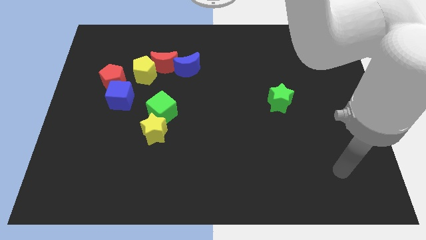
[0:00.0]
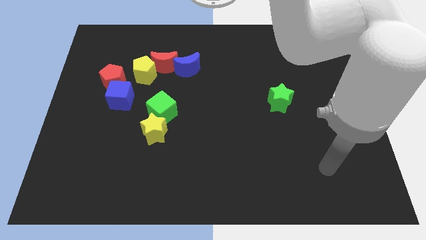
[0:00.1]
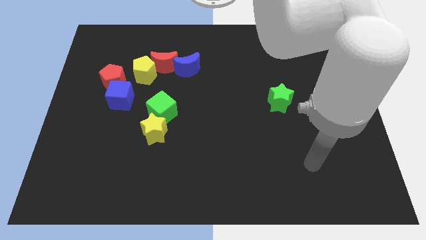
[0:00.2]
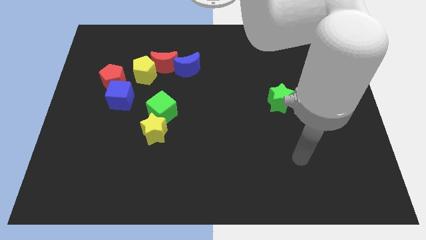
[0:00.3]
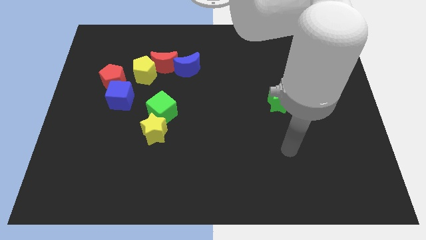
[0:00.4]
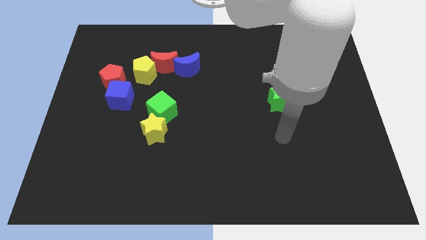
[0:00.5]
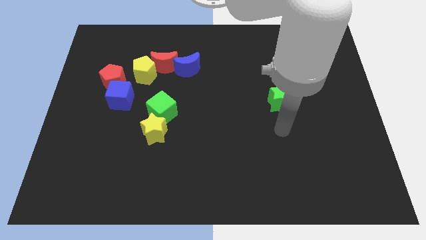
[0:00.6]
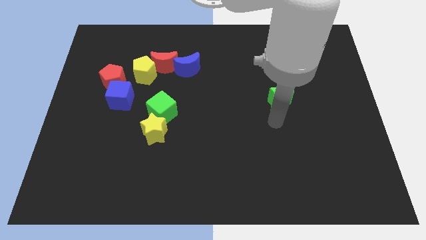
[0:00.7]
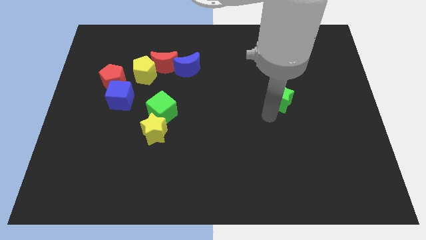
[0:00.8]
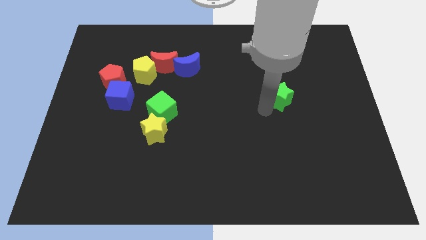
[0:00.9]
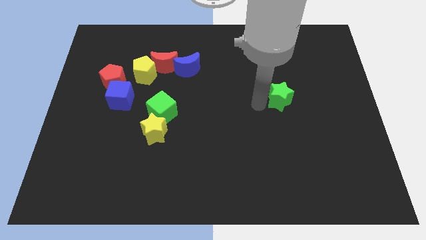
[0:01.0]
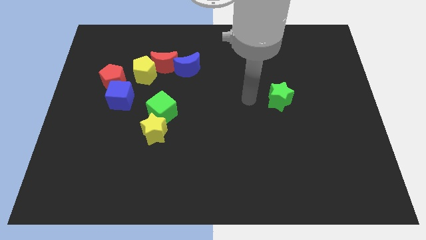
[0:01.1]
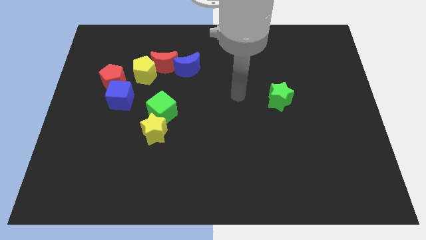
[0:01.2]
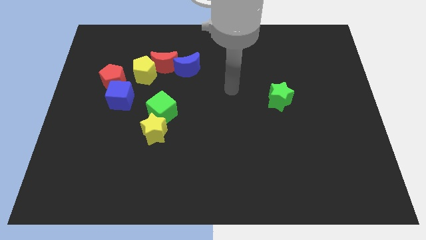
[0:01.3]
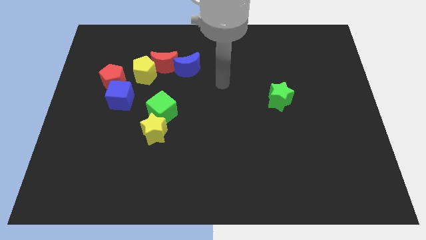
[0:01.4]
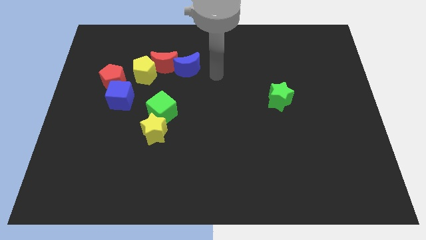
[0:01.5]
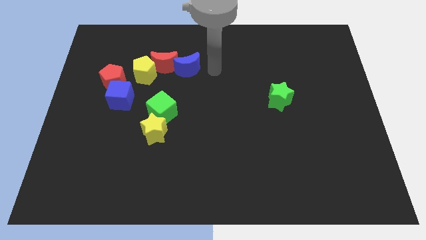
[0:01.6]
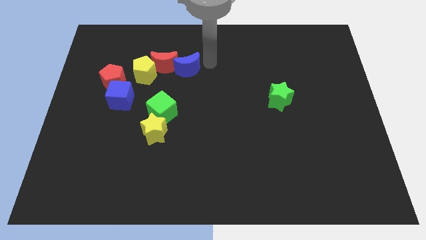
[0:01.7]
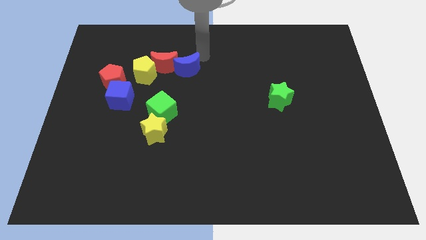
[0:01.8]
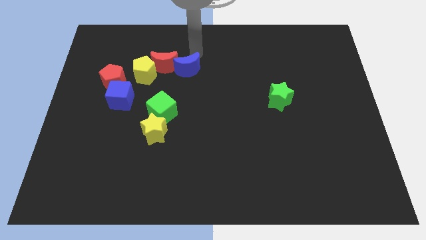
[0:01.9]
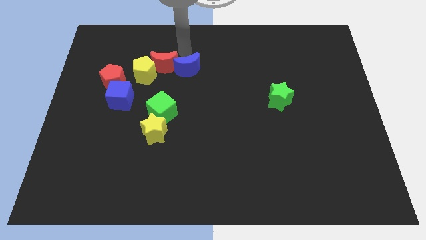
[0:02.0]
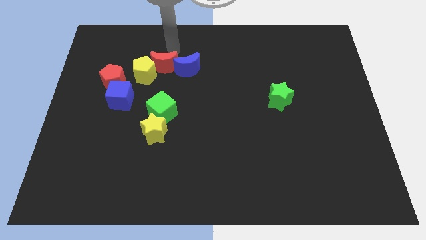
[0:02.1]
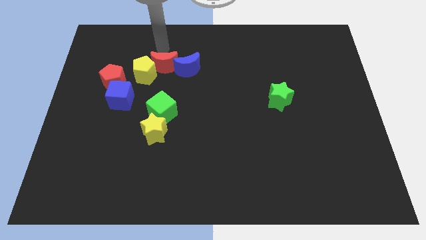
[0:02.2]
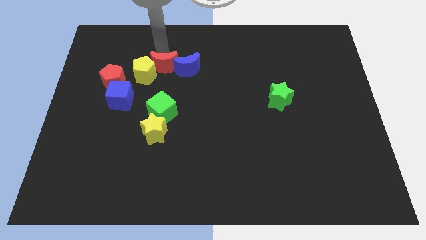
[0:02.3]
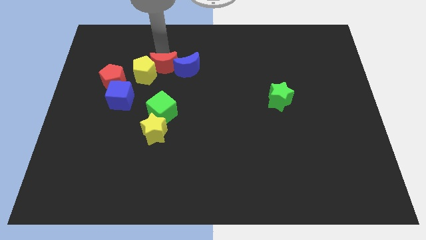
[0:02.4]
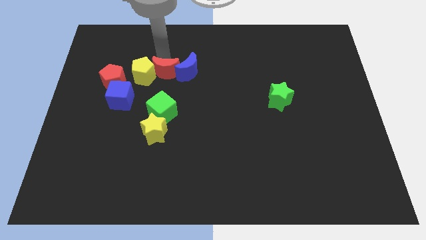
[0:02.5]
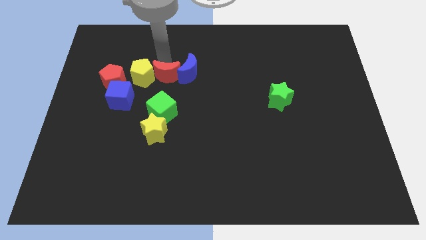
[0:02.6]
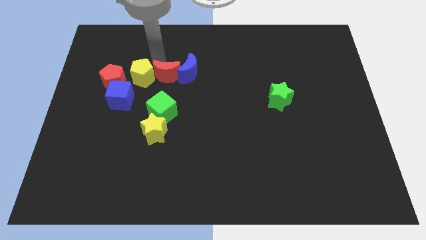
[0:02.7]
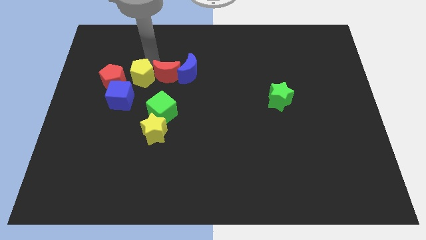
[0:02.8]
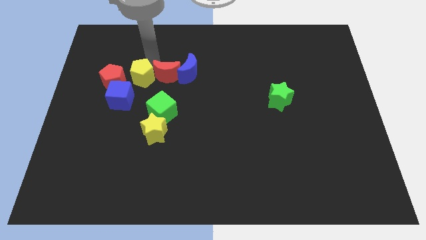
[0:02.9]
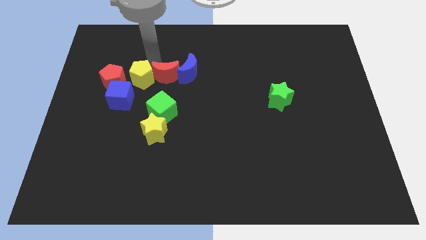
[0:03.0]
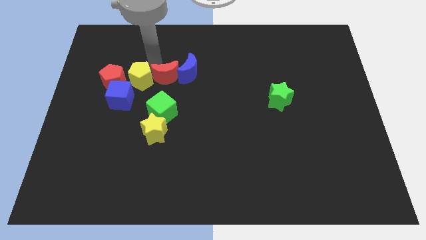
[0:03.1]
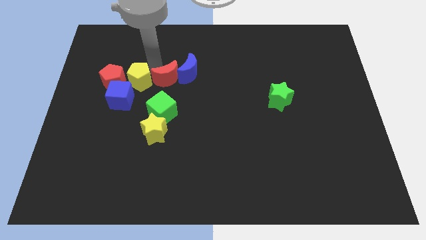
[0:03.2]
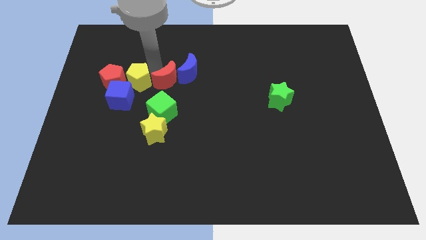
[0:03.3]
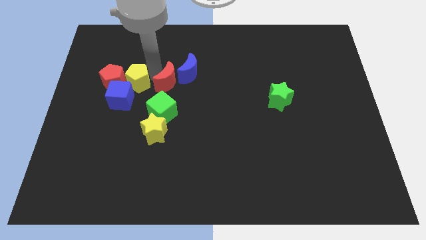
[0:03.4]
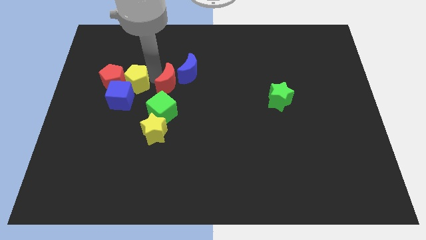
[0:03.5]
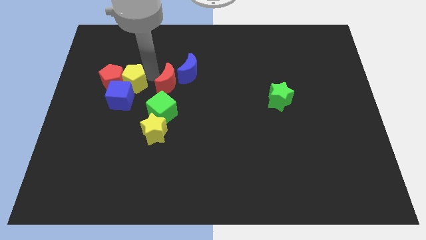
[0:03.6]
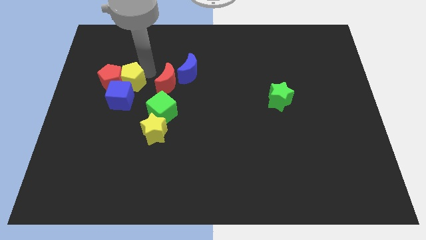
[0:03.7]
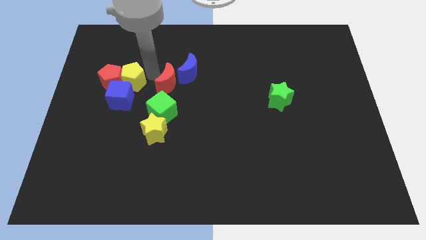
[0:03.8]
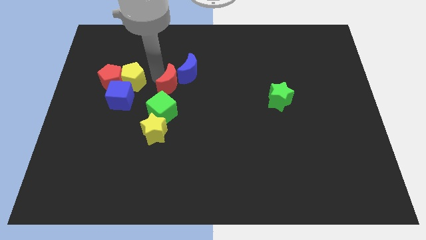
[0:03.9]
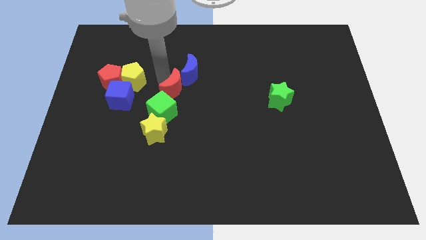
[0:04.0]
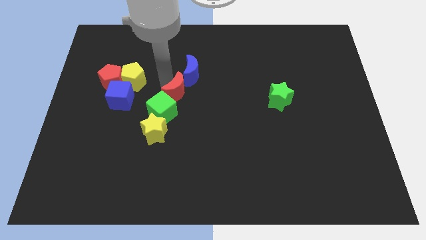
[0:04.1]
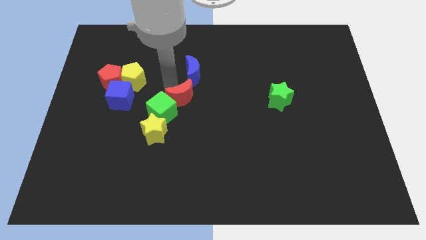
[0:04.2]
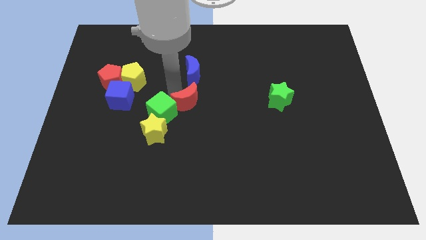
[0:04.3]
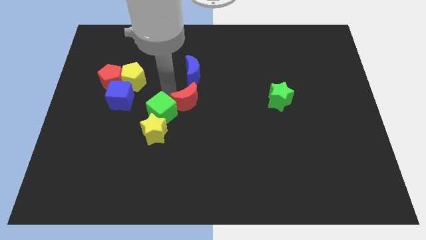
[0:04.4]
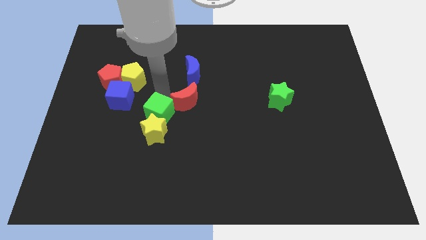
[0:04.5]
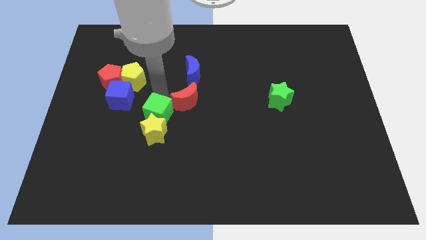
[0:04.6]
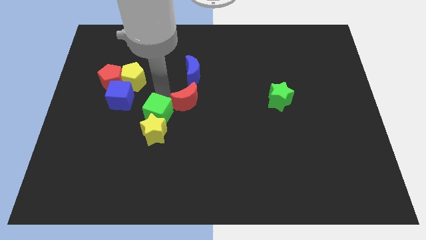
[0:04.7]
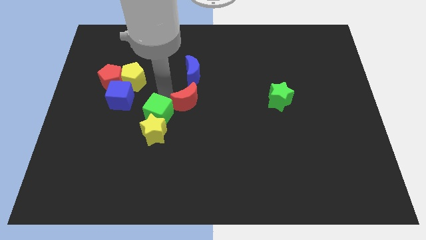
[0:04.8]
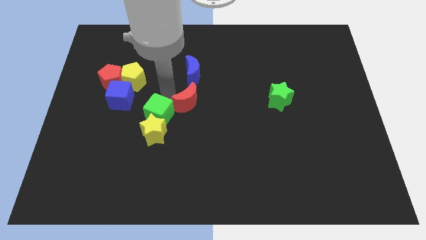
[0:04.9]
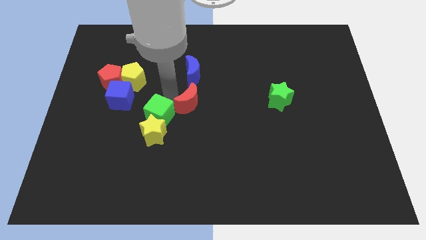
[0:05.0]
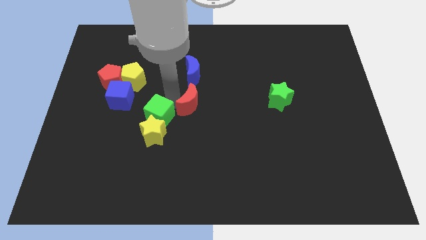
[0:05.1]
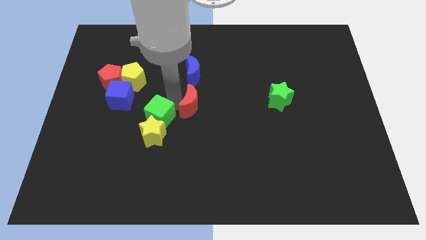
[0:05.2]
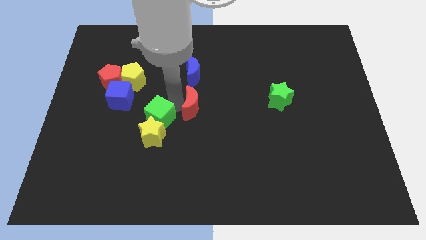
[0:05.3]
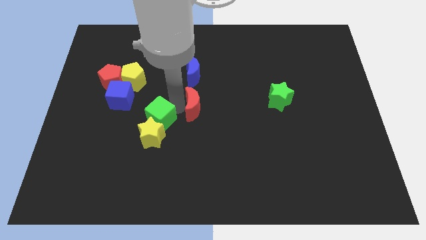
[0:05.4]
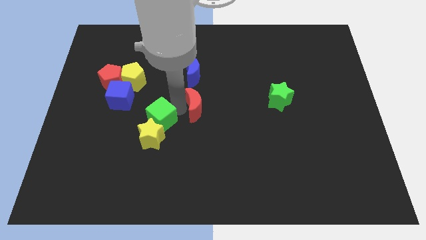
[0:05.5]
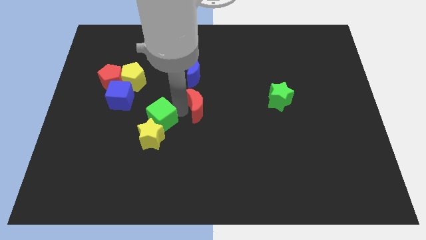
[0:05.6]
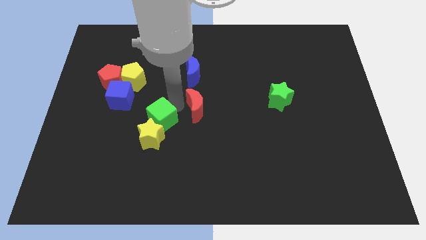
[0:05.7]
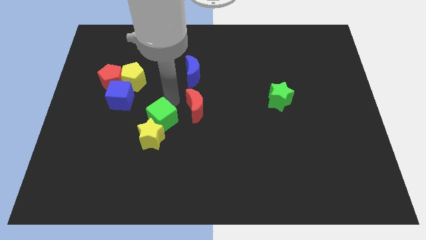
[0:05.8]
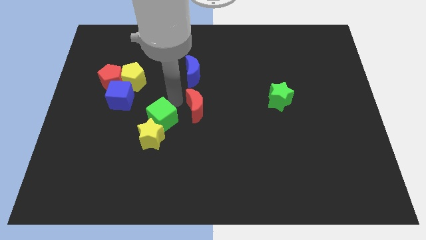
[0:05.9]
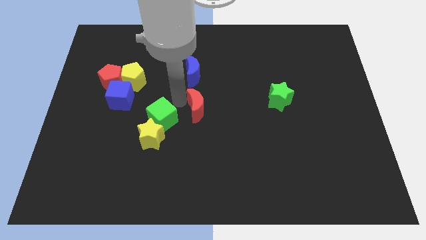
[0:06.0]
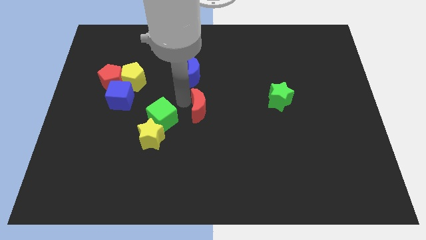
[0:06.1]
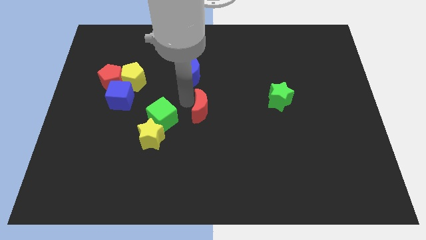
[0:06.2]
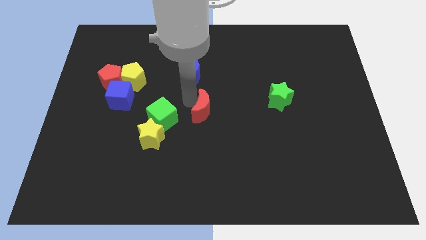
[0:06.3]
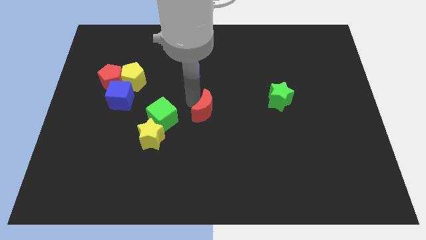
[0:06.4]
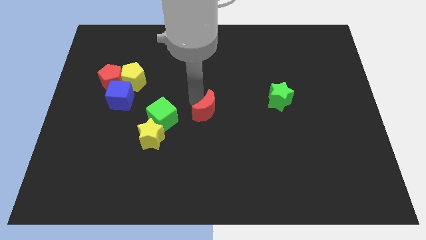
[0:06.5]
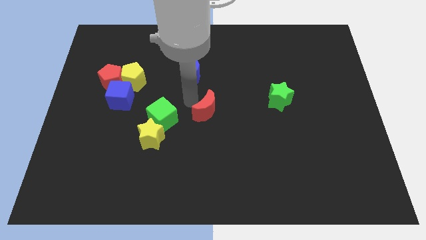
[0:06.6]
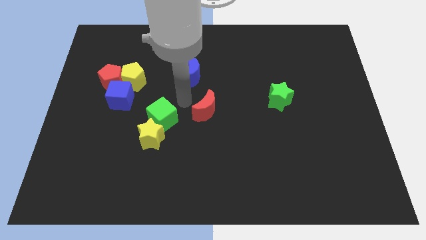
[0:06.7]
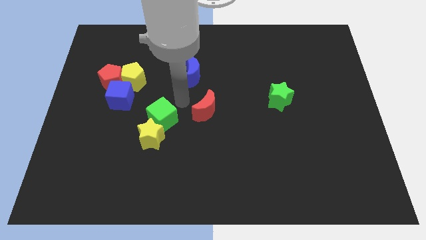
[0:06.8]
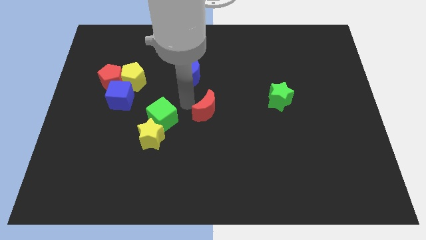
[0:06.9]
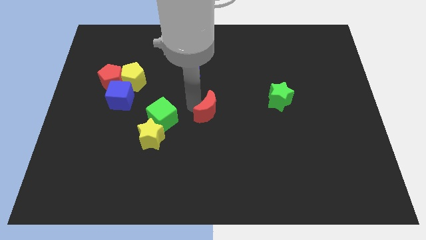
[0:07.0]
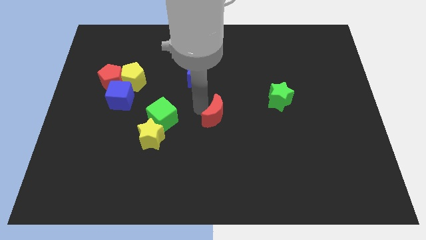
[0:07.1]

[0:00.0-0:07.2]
push the red moon downwards and then to the right

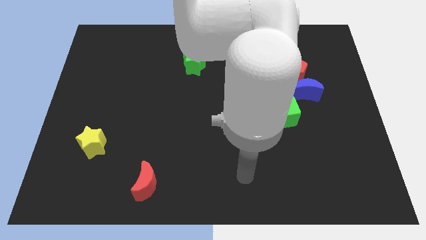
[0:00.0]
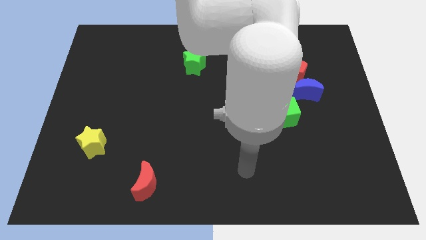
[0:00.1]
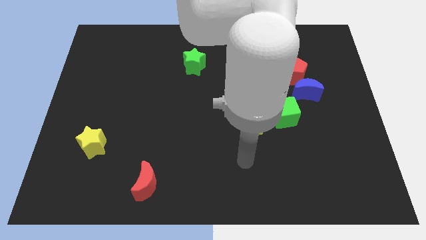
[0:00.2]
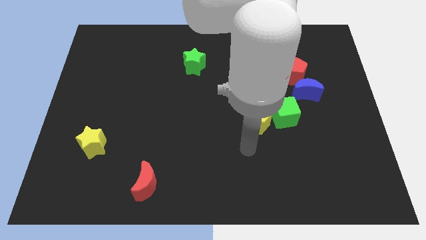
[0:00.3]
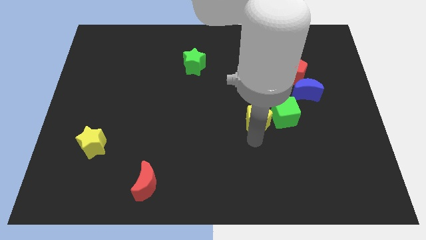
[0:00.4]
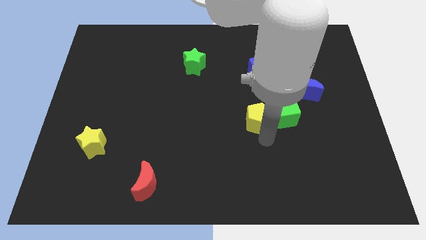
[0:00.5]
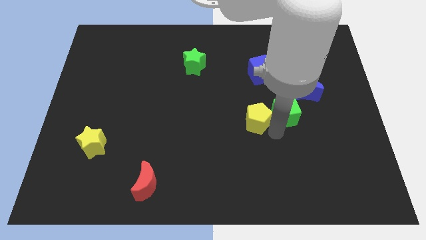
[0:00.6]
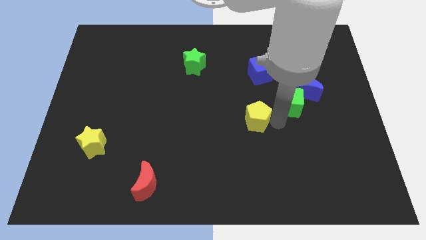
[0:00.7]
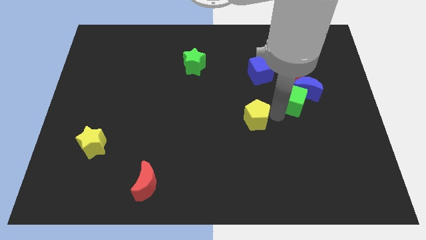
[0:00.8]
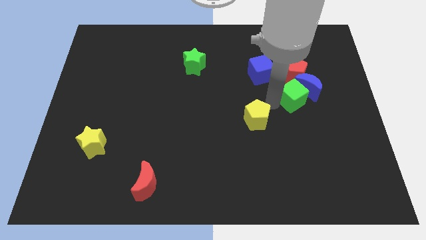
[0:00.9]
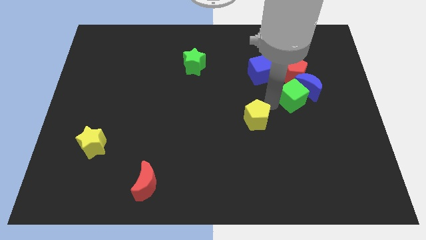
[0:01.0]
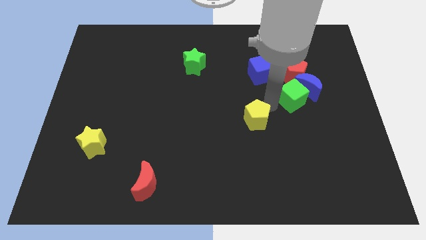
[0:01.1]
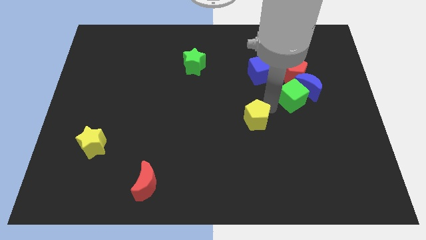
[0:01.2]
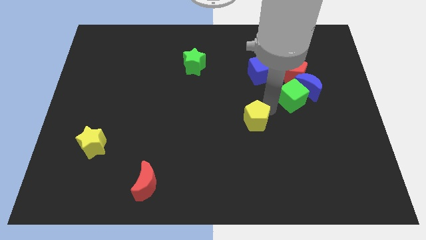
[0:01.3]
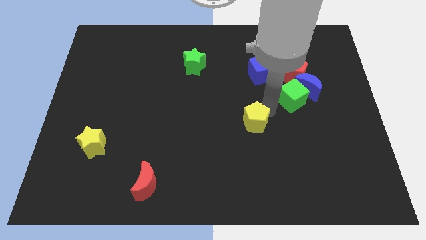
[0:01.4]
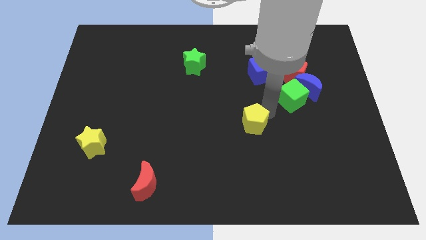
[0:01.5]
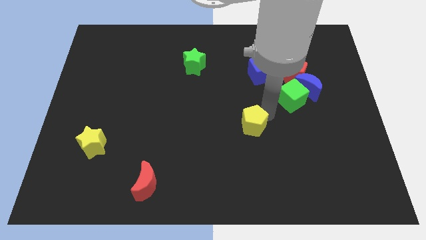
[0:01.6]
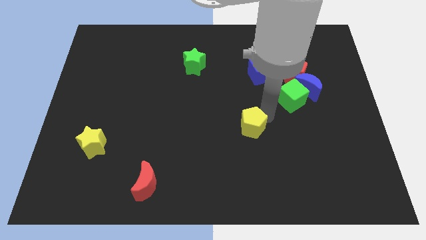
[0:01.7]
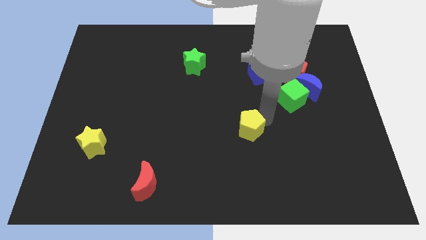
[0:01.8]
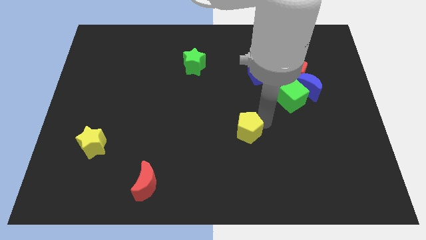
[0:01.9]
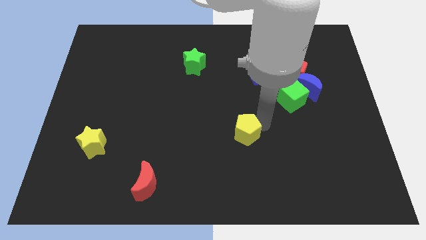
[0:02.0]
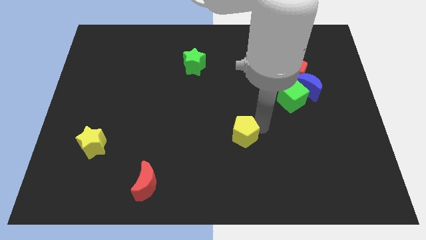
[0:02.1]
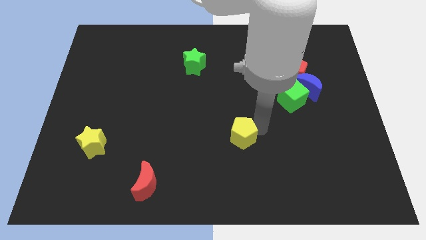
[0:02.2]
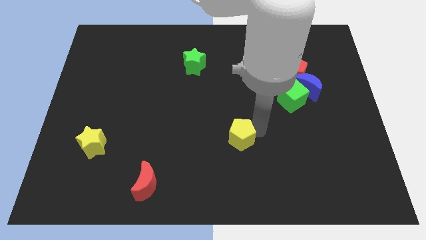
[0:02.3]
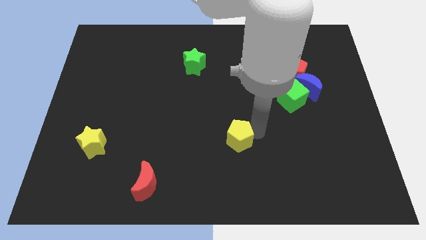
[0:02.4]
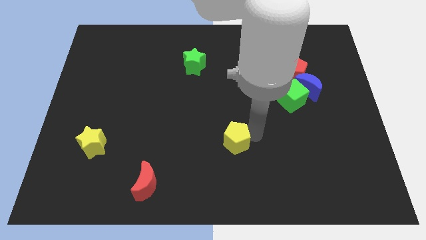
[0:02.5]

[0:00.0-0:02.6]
move the yellow pentagon slightly down and to the left diagonally
